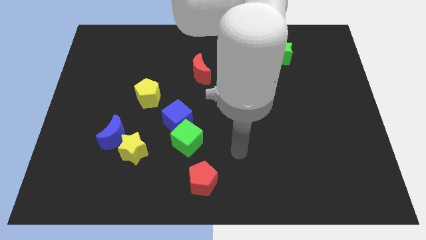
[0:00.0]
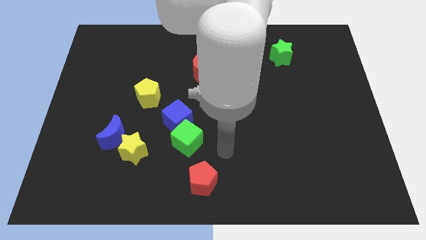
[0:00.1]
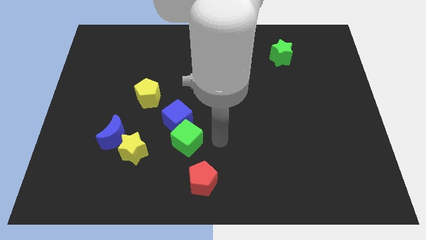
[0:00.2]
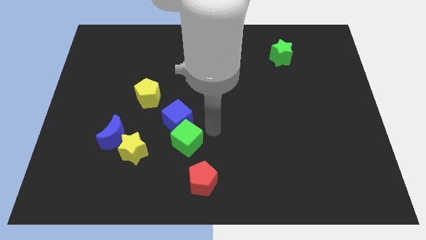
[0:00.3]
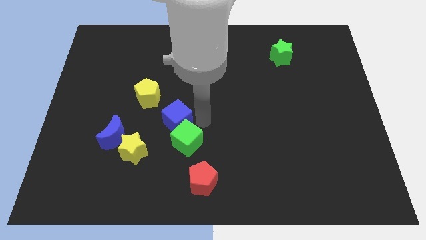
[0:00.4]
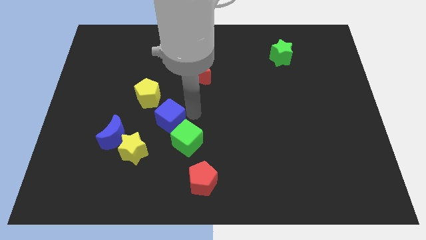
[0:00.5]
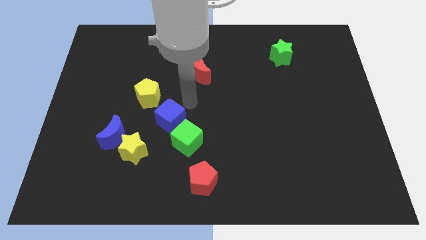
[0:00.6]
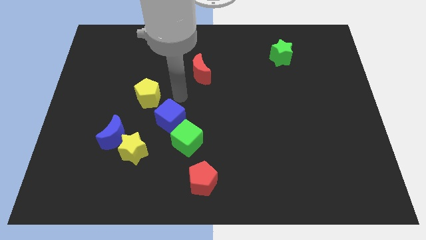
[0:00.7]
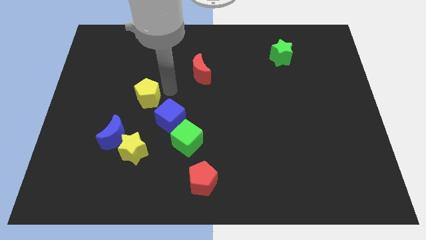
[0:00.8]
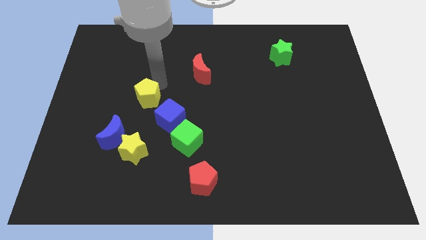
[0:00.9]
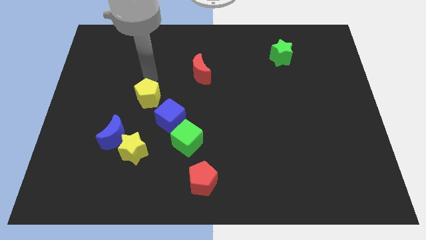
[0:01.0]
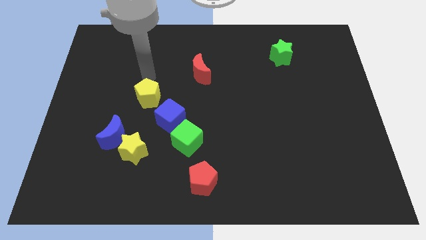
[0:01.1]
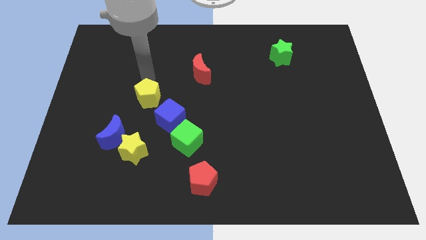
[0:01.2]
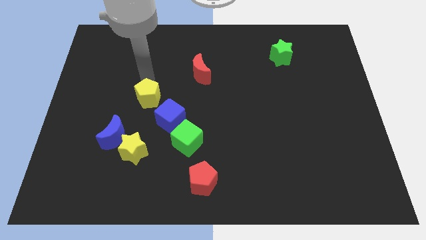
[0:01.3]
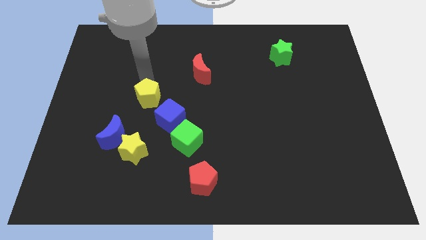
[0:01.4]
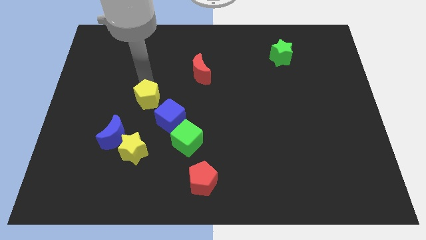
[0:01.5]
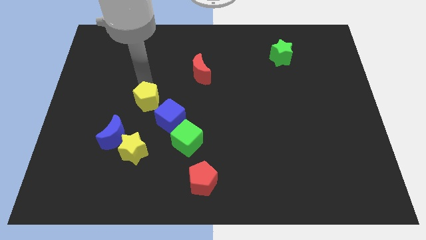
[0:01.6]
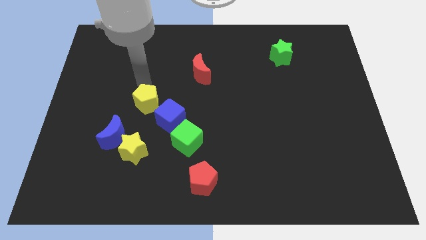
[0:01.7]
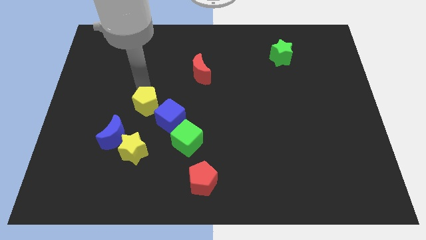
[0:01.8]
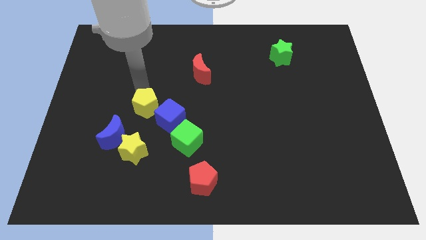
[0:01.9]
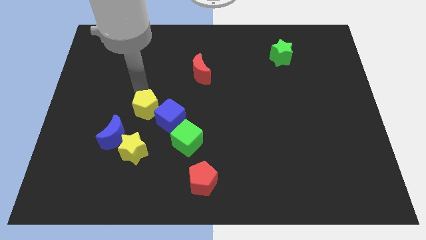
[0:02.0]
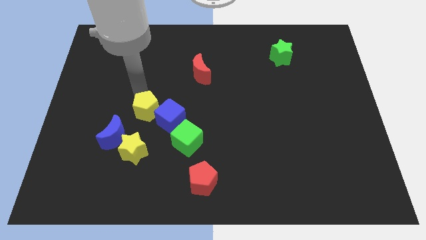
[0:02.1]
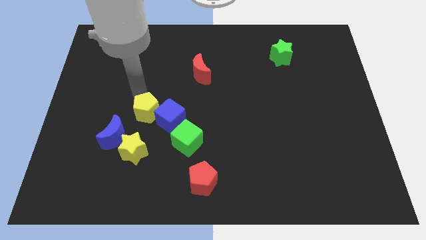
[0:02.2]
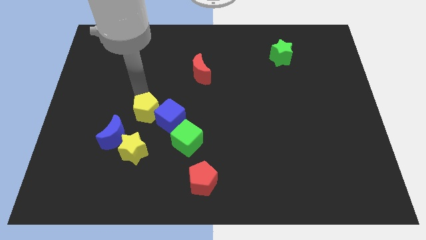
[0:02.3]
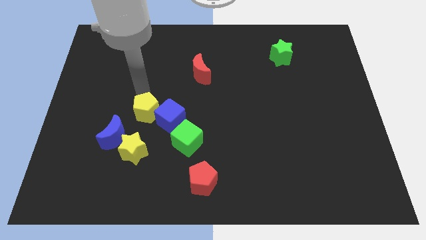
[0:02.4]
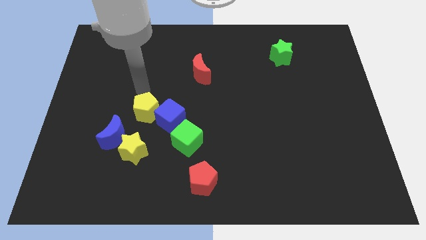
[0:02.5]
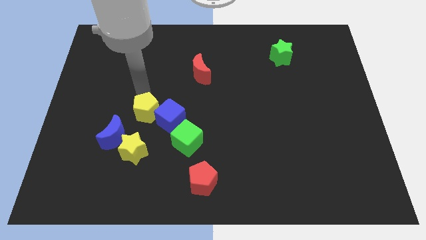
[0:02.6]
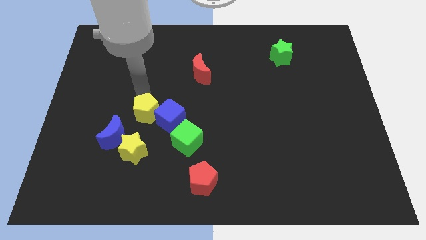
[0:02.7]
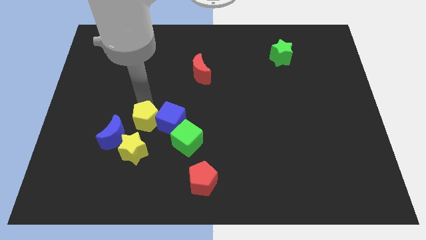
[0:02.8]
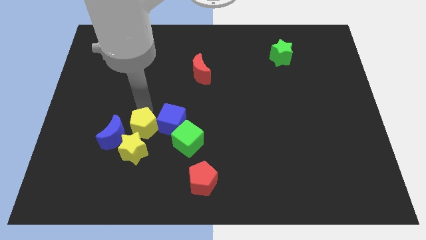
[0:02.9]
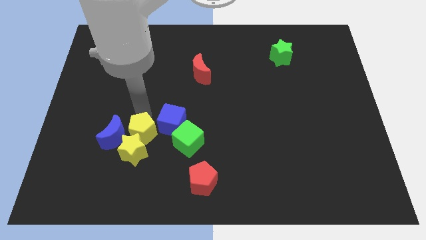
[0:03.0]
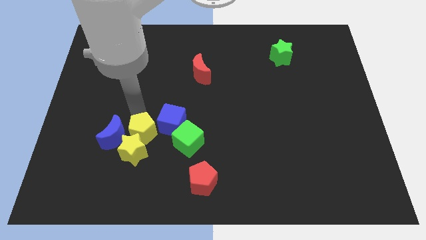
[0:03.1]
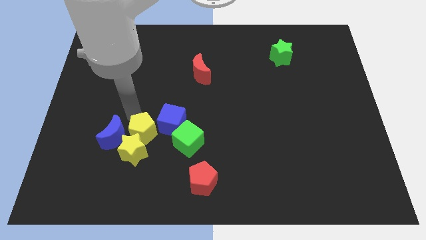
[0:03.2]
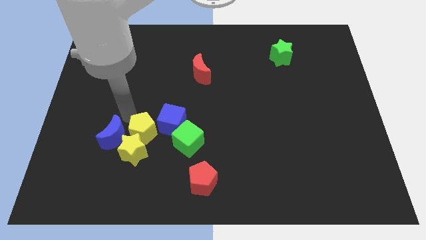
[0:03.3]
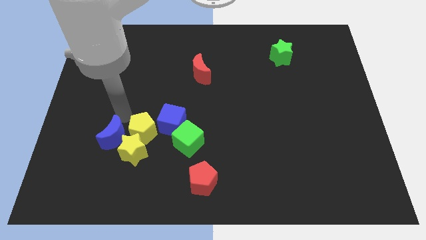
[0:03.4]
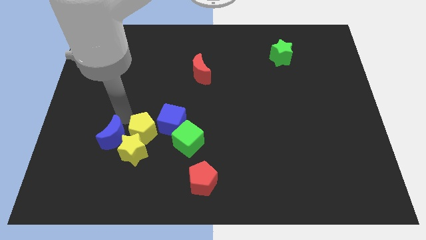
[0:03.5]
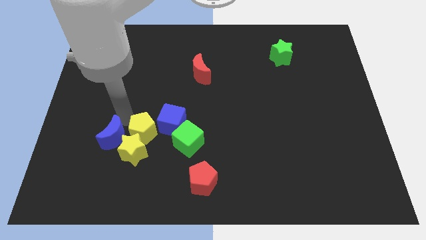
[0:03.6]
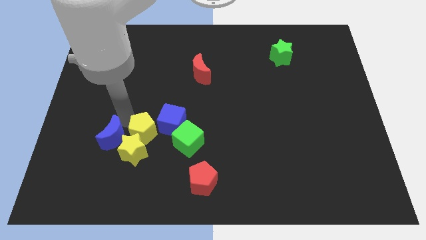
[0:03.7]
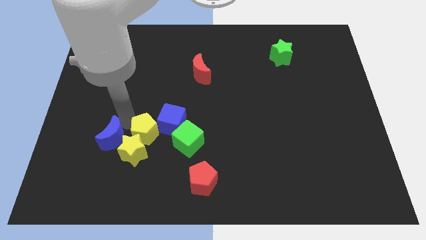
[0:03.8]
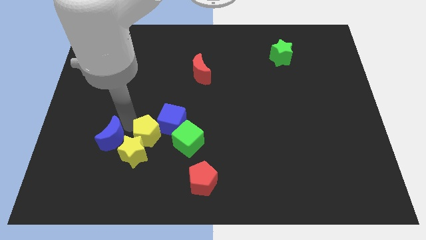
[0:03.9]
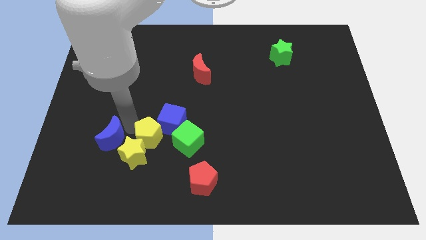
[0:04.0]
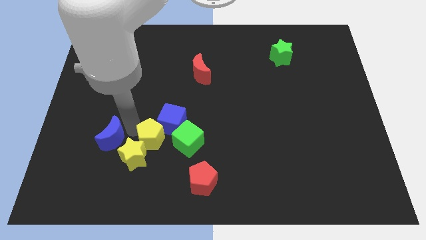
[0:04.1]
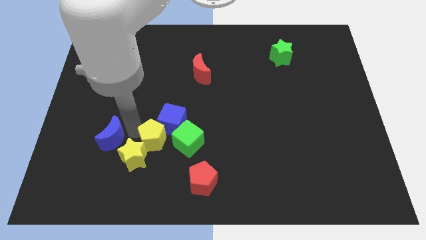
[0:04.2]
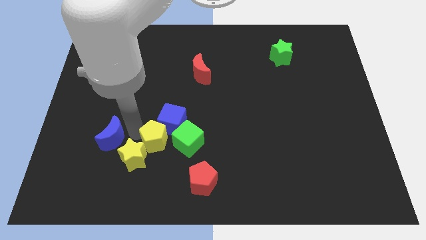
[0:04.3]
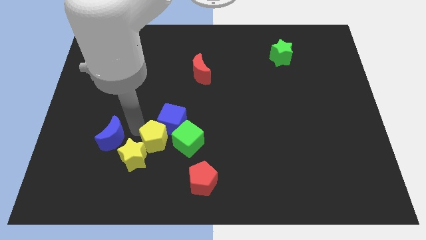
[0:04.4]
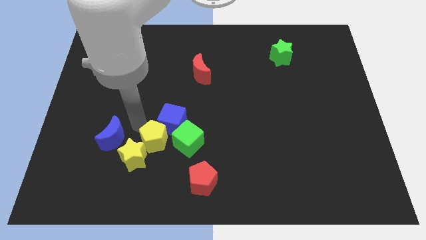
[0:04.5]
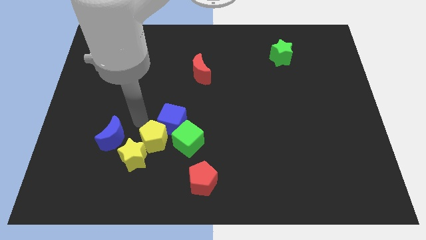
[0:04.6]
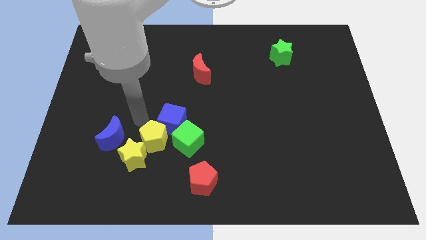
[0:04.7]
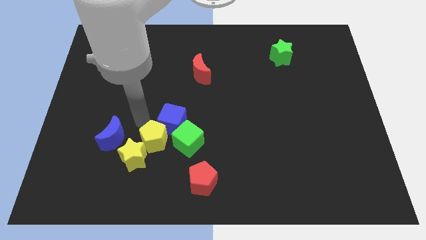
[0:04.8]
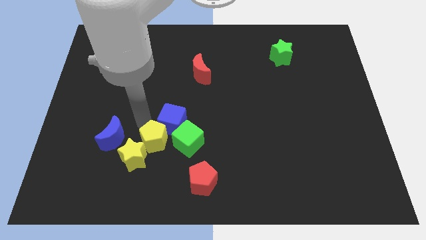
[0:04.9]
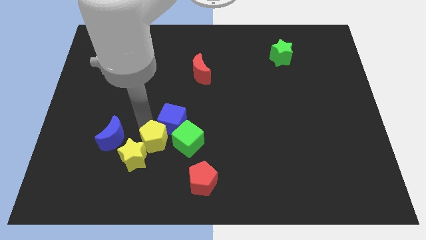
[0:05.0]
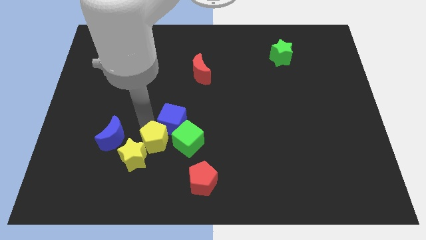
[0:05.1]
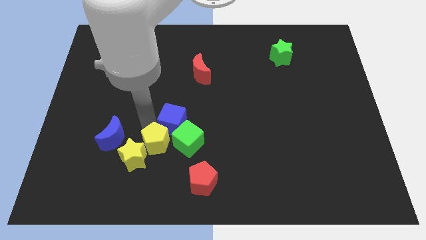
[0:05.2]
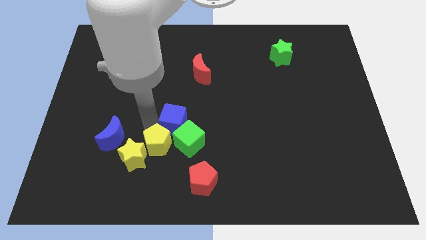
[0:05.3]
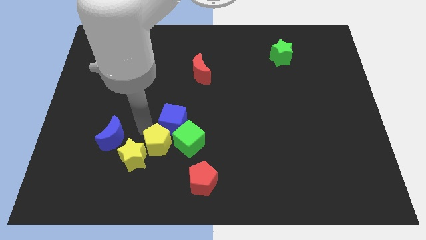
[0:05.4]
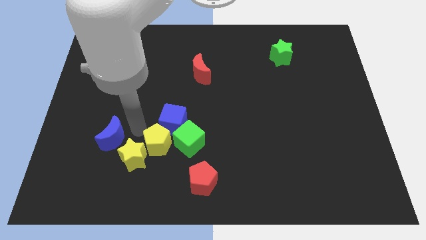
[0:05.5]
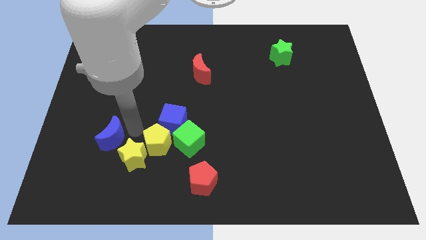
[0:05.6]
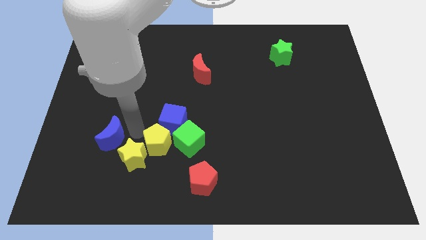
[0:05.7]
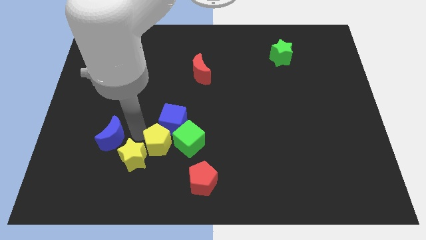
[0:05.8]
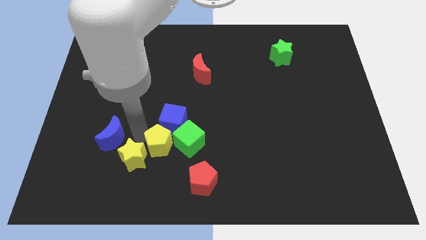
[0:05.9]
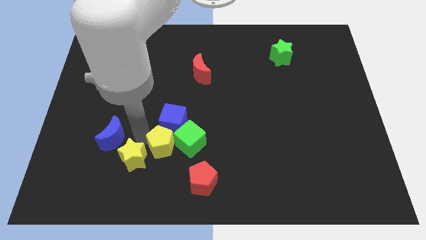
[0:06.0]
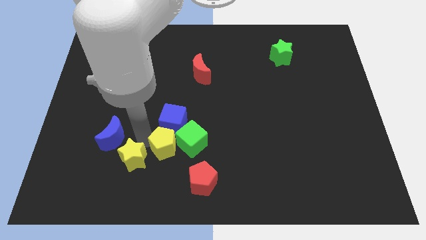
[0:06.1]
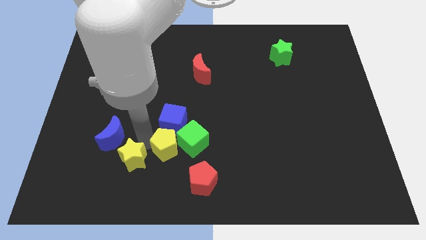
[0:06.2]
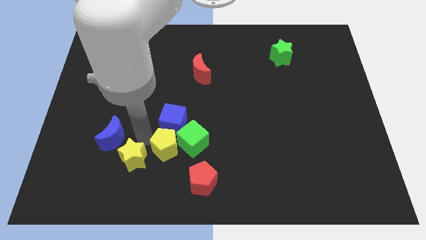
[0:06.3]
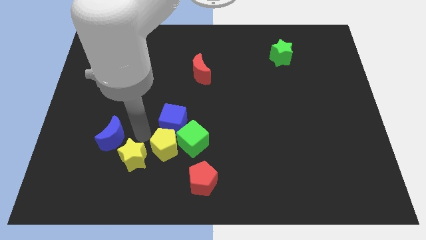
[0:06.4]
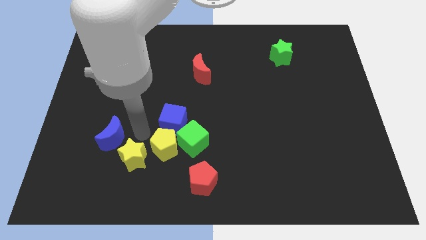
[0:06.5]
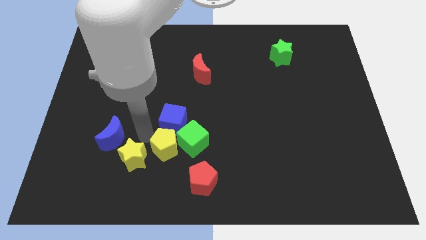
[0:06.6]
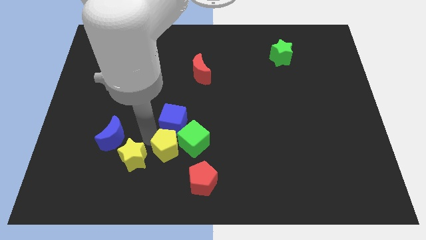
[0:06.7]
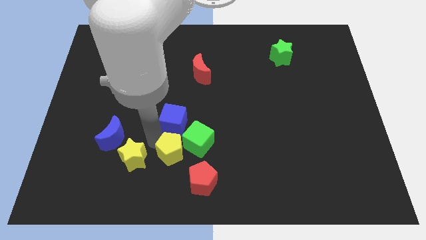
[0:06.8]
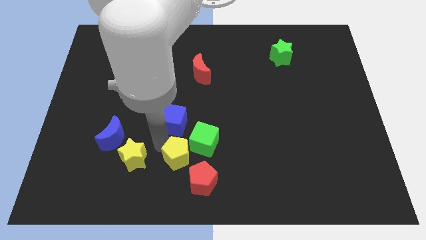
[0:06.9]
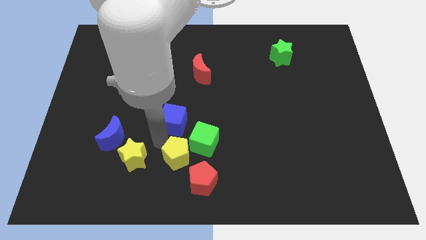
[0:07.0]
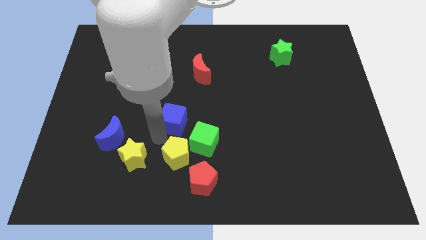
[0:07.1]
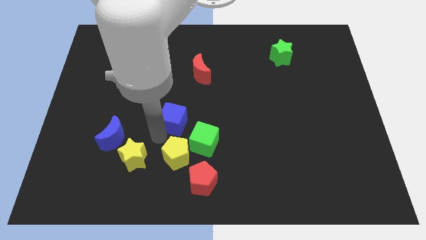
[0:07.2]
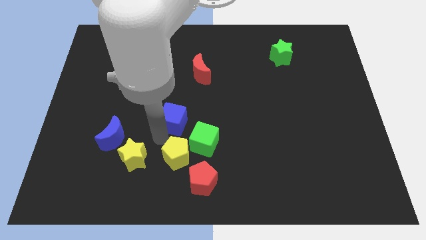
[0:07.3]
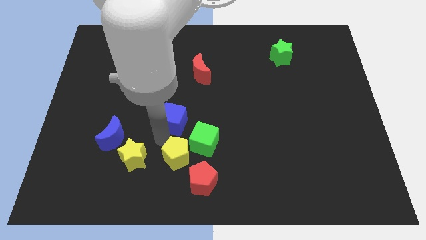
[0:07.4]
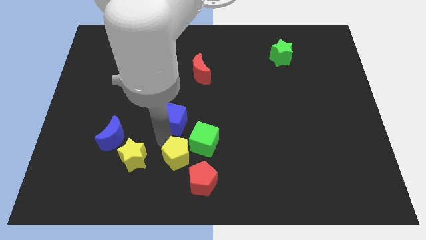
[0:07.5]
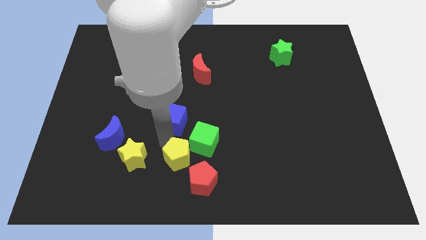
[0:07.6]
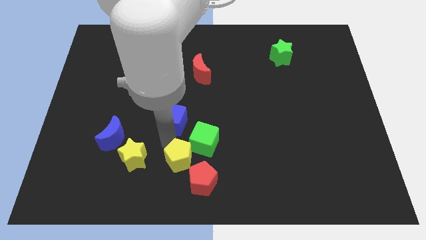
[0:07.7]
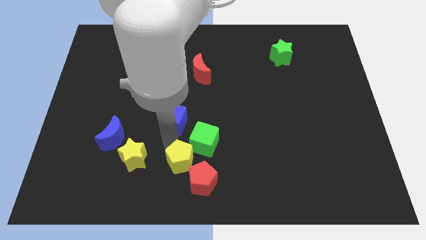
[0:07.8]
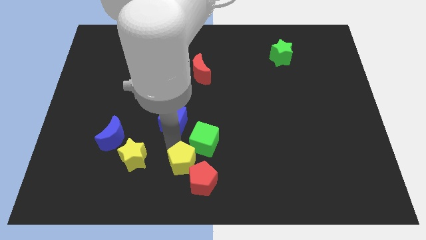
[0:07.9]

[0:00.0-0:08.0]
put the yellow pentagon towards the red pentagon
